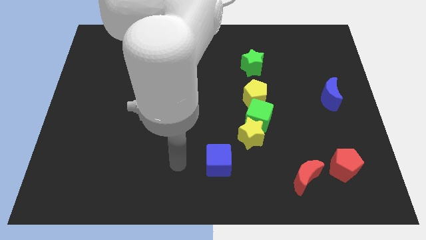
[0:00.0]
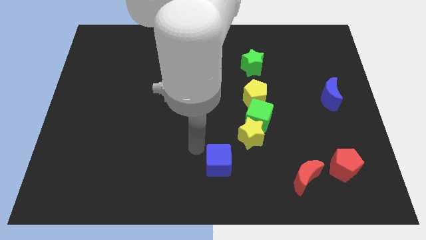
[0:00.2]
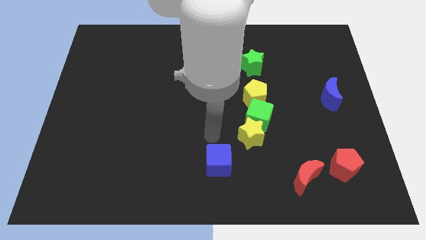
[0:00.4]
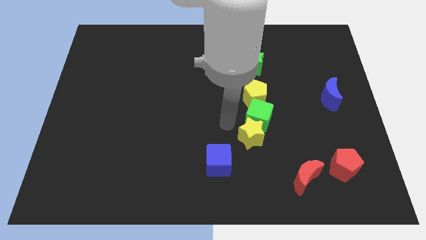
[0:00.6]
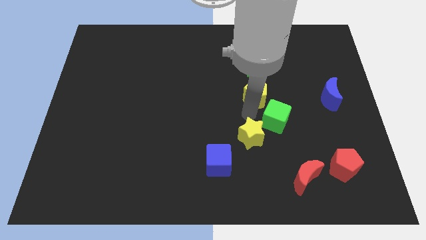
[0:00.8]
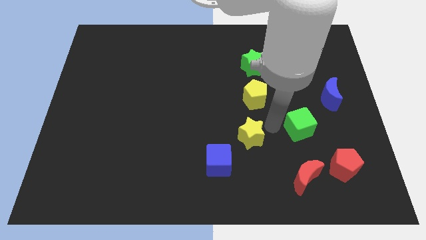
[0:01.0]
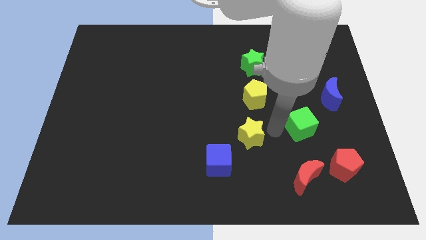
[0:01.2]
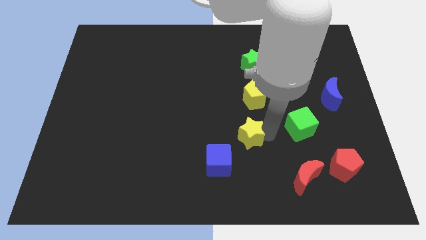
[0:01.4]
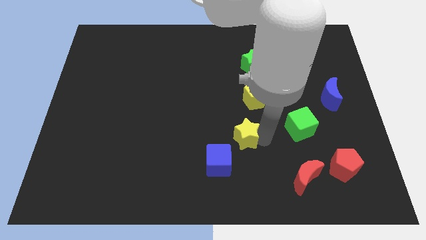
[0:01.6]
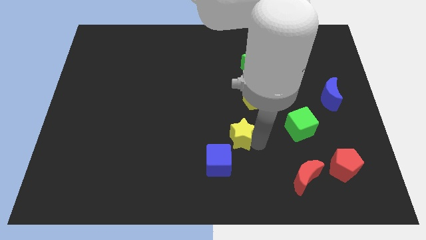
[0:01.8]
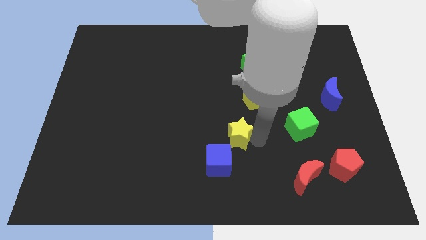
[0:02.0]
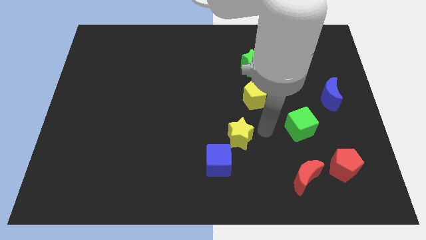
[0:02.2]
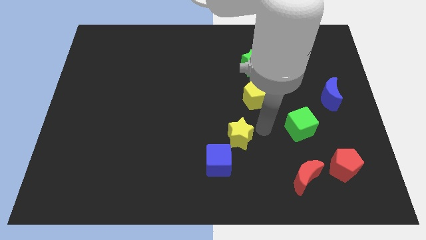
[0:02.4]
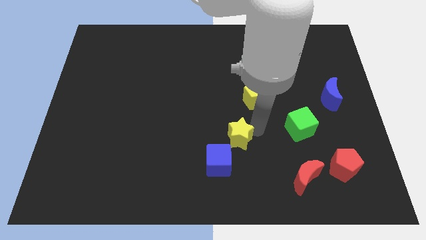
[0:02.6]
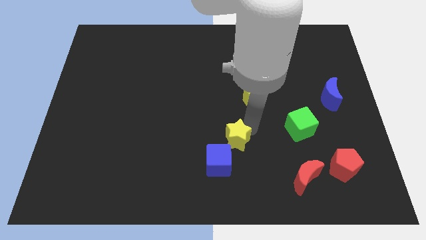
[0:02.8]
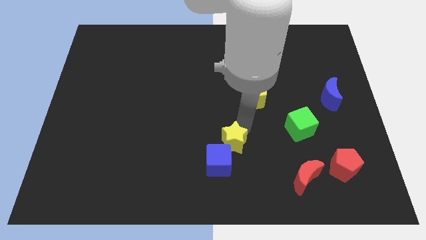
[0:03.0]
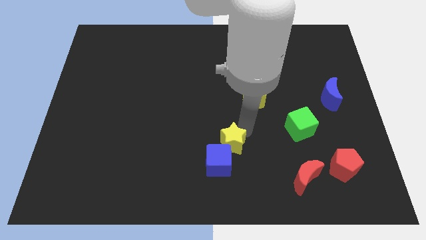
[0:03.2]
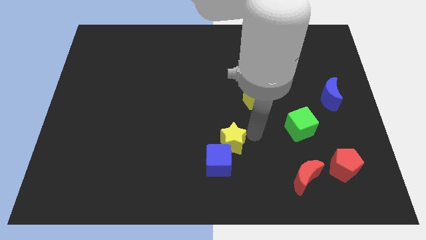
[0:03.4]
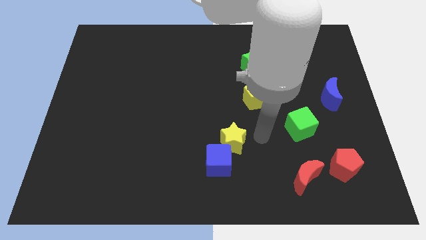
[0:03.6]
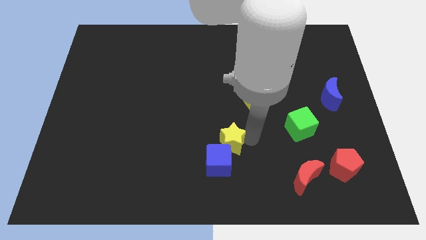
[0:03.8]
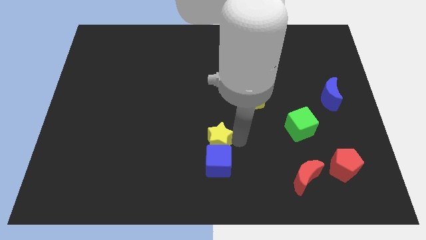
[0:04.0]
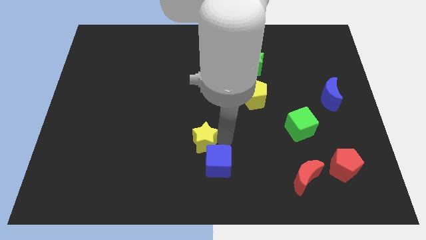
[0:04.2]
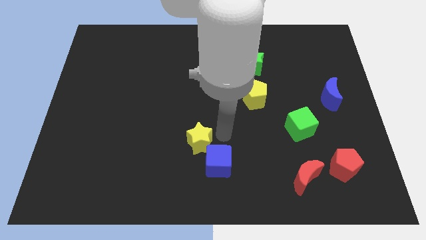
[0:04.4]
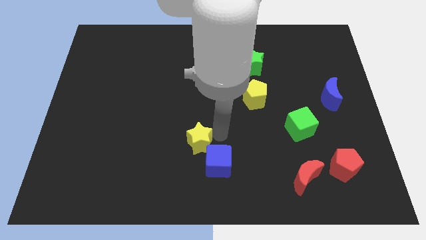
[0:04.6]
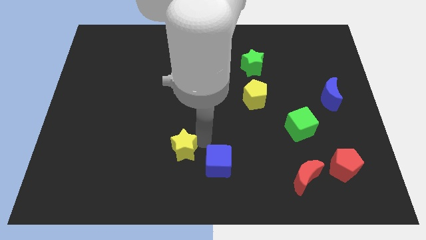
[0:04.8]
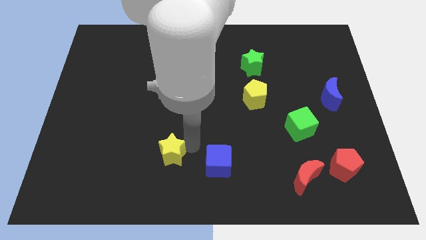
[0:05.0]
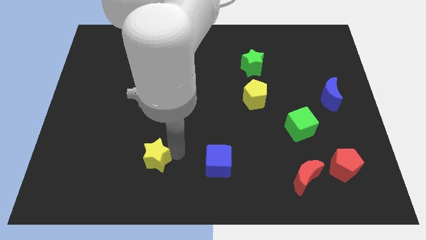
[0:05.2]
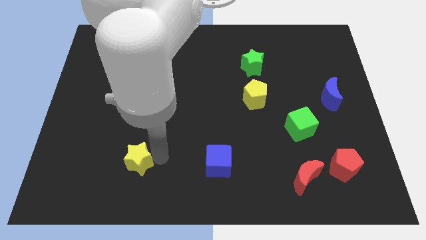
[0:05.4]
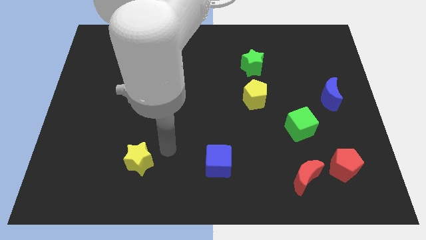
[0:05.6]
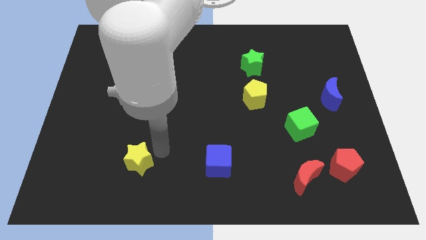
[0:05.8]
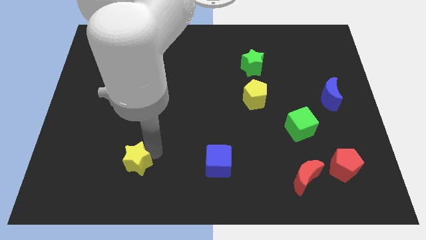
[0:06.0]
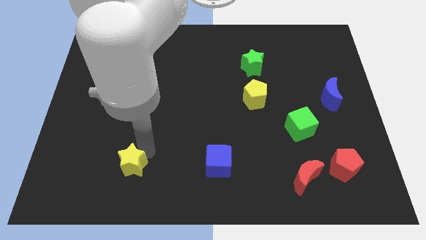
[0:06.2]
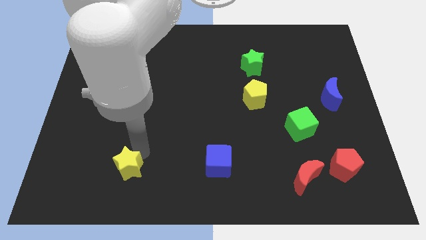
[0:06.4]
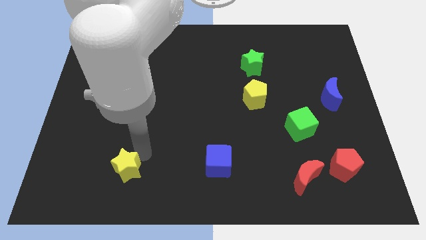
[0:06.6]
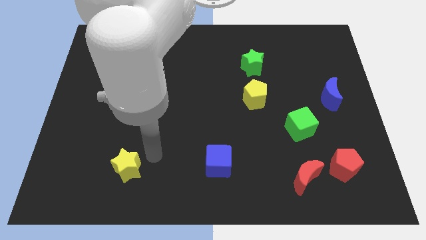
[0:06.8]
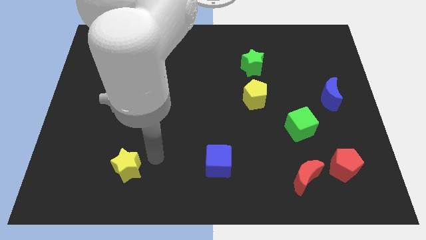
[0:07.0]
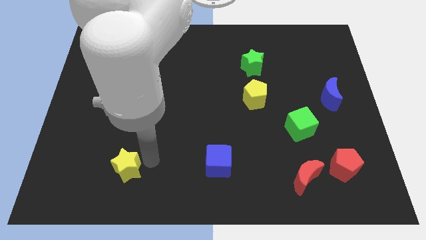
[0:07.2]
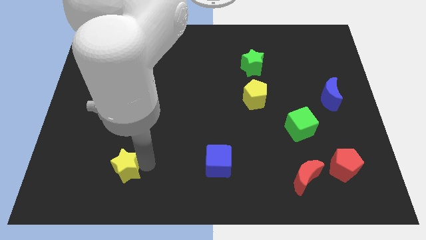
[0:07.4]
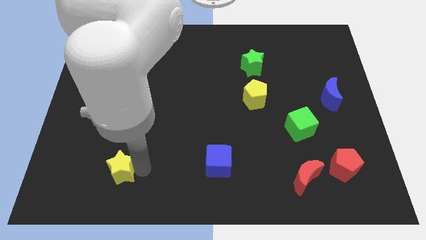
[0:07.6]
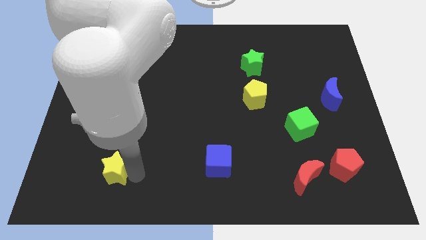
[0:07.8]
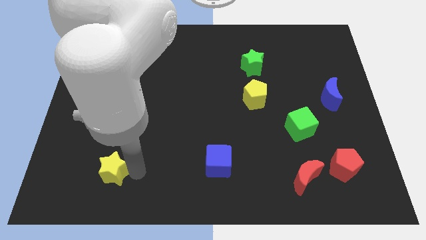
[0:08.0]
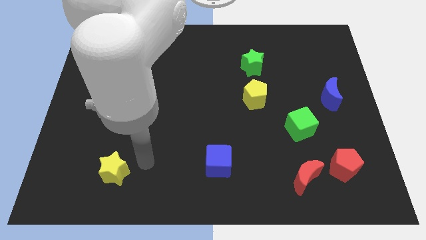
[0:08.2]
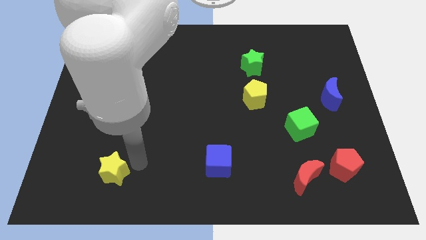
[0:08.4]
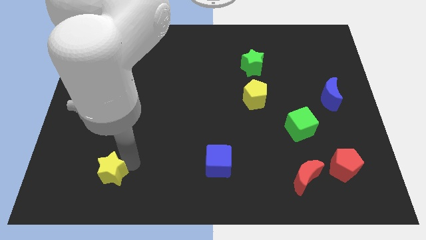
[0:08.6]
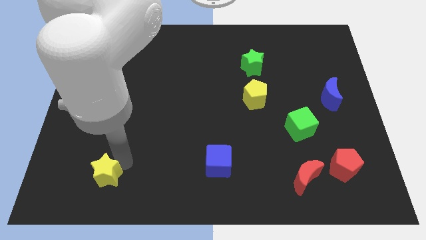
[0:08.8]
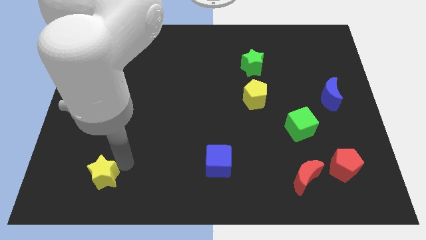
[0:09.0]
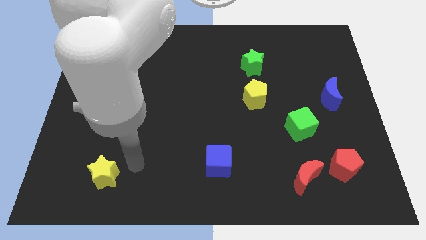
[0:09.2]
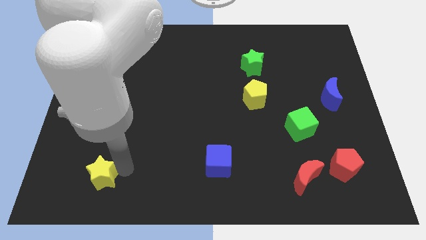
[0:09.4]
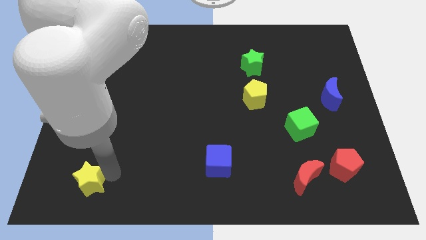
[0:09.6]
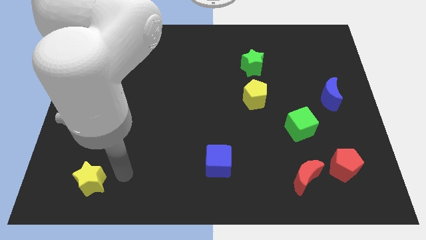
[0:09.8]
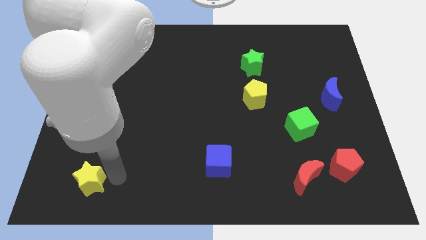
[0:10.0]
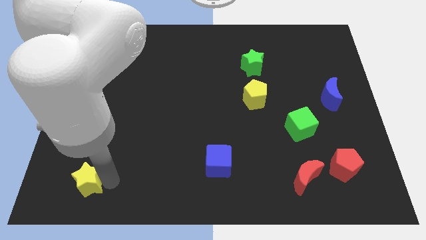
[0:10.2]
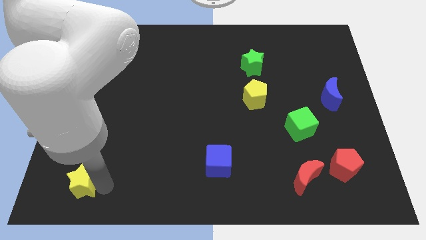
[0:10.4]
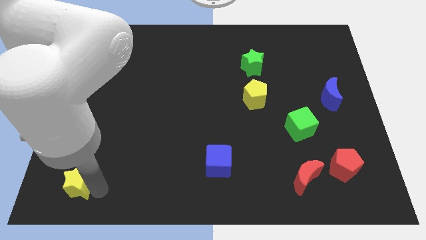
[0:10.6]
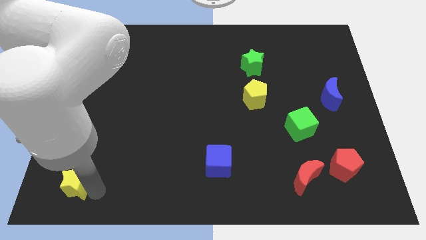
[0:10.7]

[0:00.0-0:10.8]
put the yellow star to the bottom left of the board

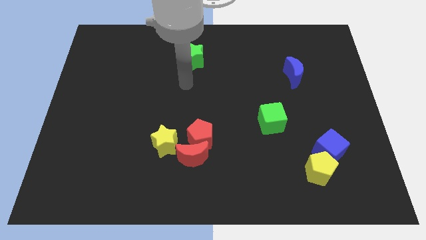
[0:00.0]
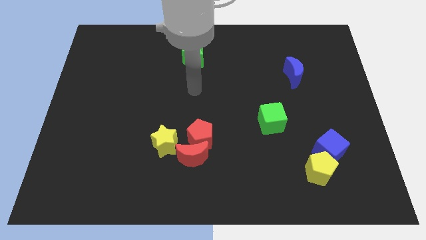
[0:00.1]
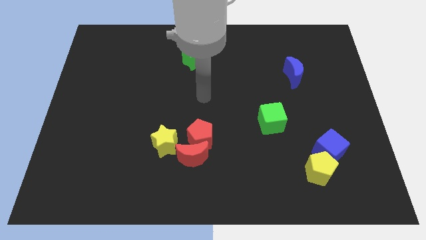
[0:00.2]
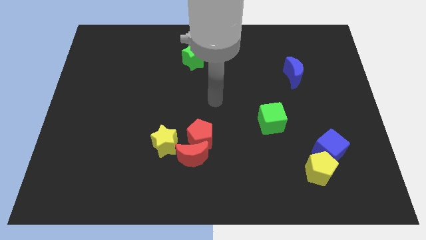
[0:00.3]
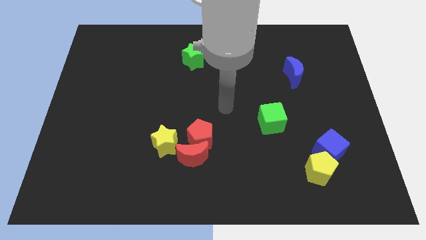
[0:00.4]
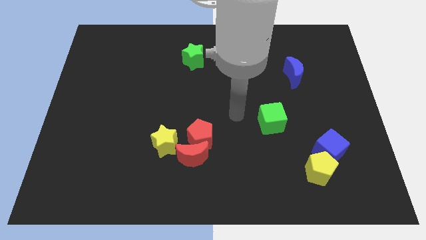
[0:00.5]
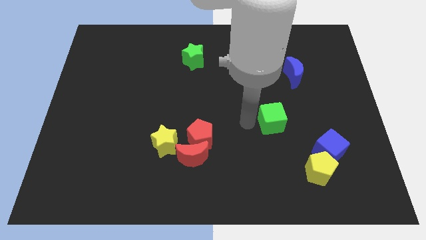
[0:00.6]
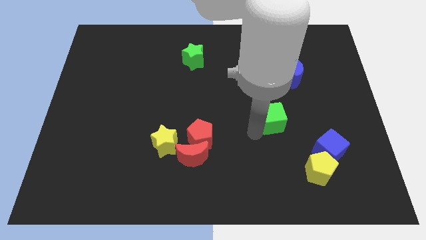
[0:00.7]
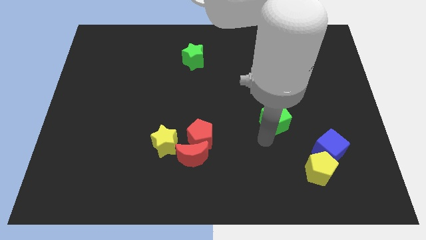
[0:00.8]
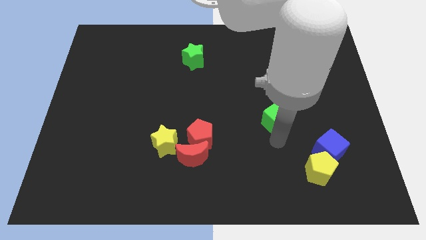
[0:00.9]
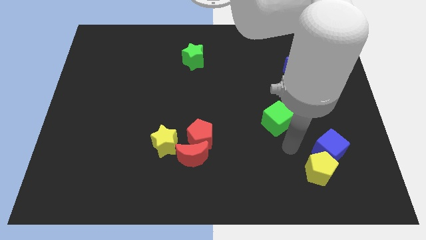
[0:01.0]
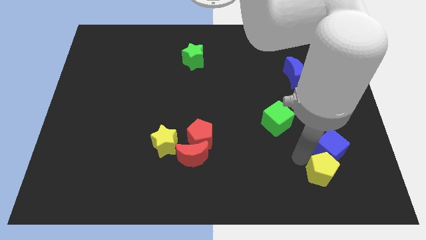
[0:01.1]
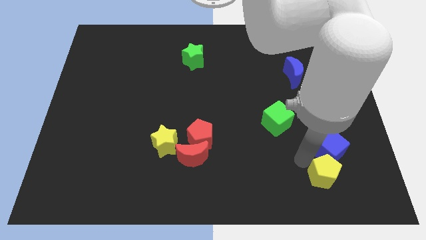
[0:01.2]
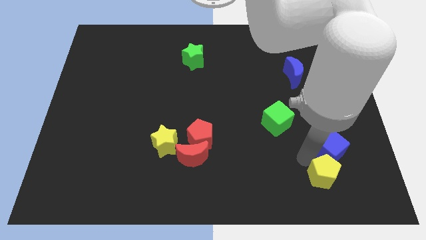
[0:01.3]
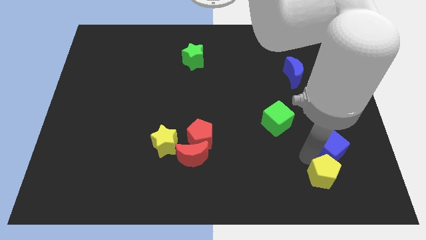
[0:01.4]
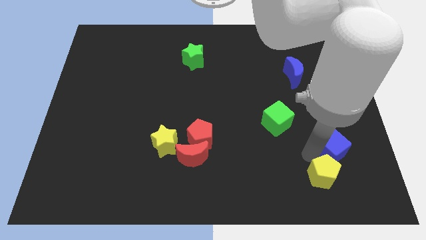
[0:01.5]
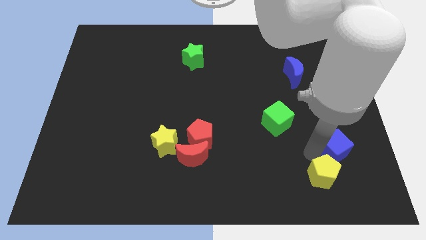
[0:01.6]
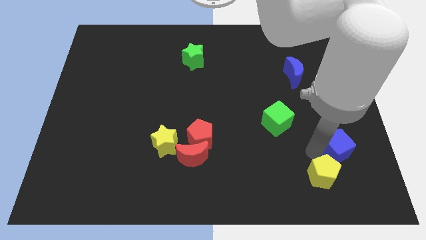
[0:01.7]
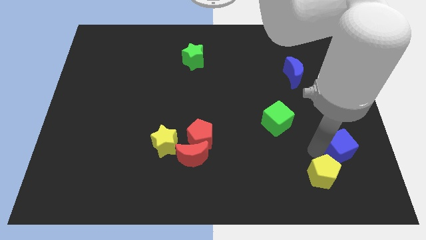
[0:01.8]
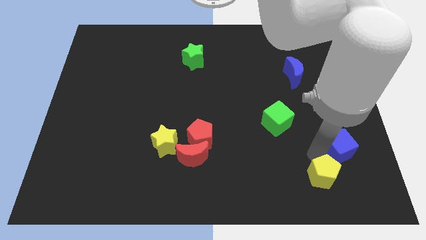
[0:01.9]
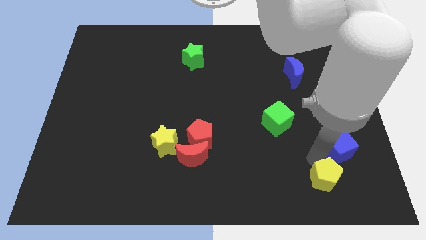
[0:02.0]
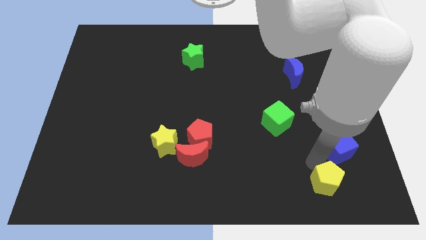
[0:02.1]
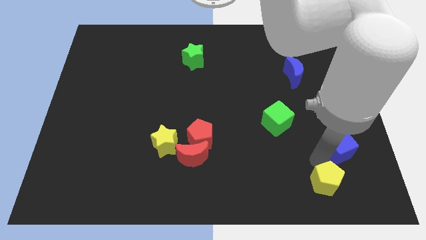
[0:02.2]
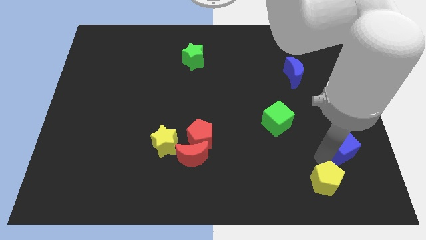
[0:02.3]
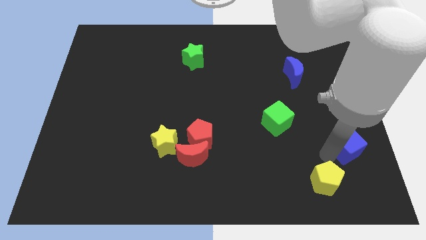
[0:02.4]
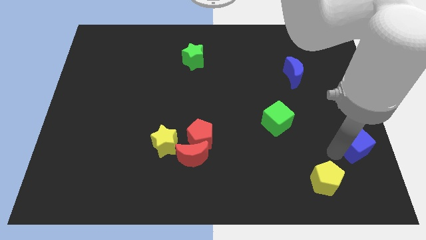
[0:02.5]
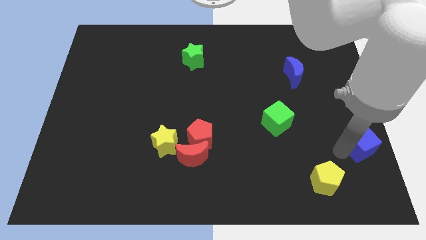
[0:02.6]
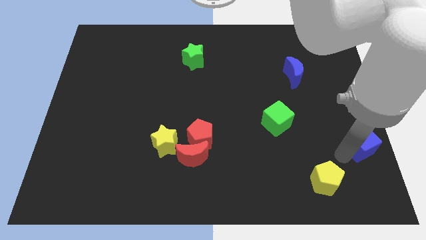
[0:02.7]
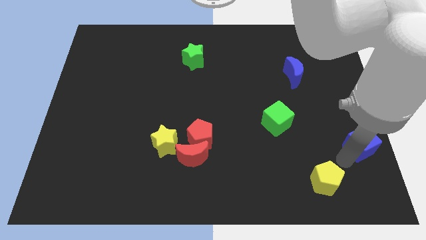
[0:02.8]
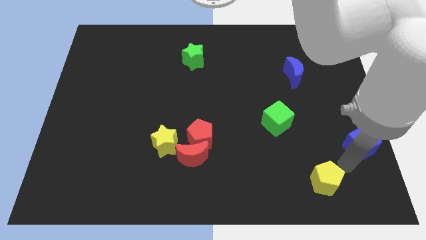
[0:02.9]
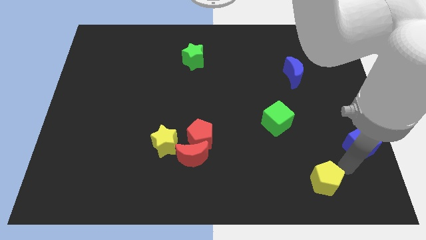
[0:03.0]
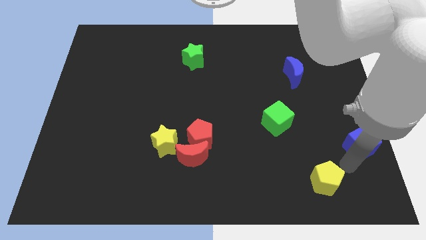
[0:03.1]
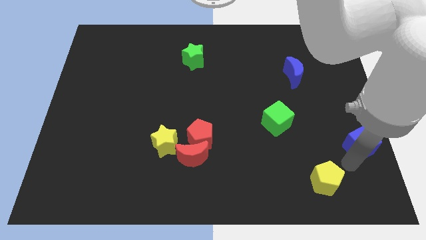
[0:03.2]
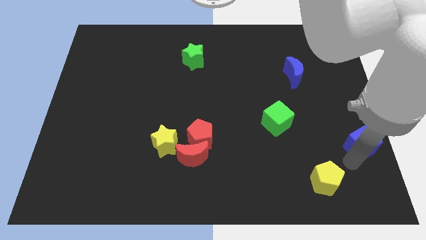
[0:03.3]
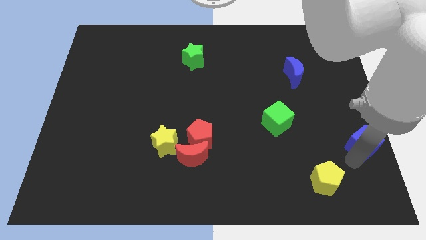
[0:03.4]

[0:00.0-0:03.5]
move the blue cube to the right side of the board
